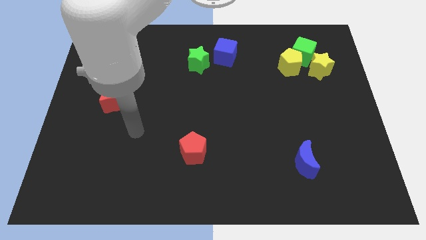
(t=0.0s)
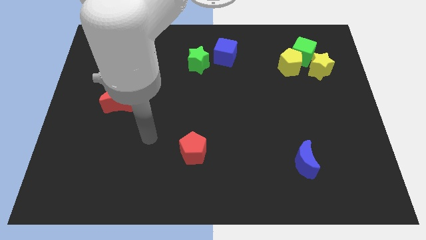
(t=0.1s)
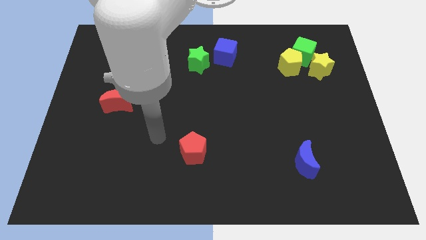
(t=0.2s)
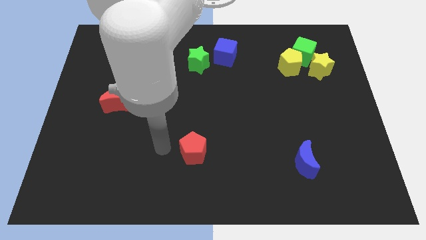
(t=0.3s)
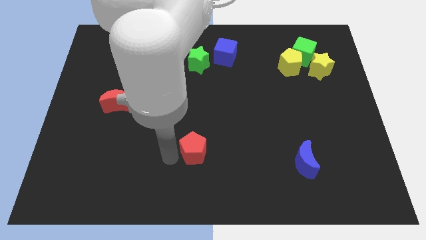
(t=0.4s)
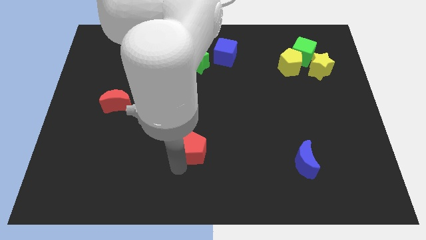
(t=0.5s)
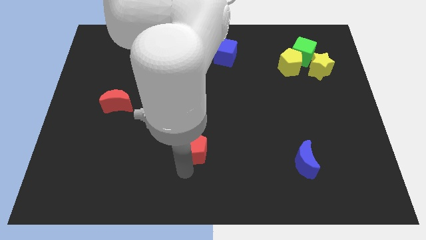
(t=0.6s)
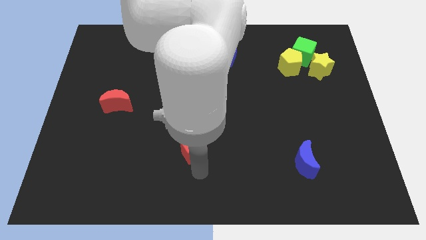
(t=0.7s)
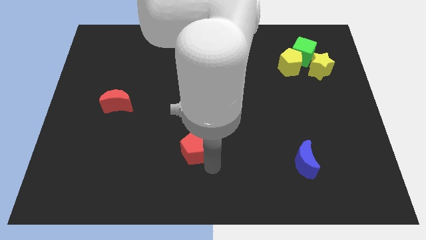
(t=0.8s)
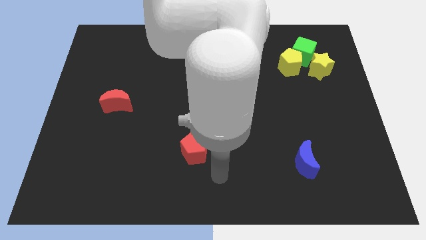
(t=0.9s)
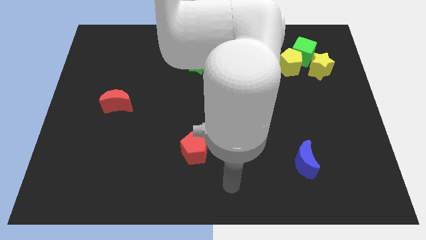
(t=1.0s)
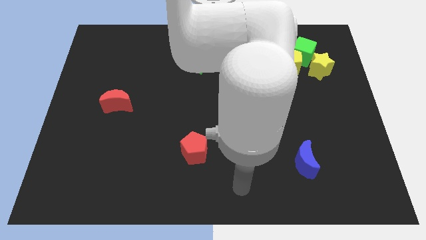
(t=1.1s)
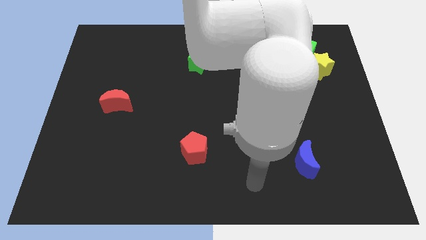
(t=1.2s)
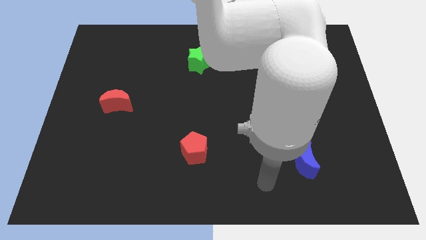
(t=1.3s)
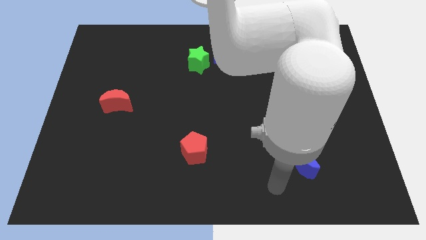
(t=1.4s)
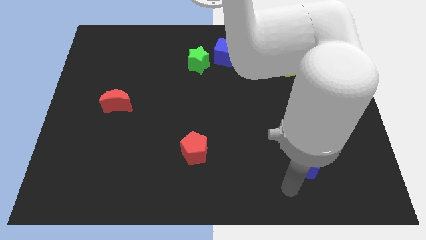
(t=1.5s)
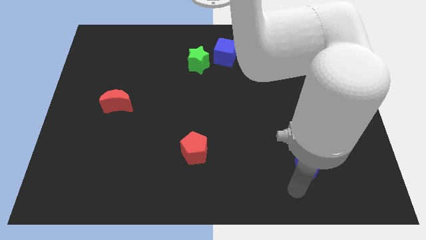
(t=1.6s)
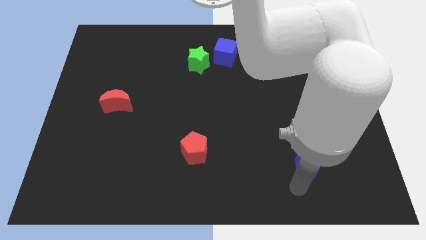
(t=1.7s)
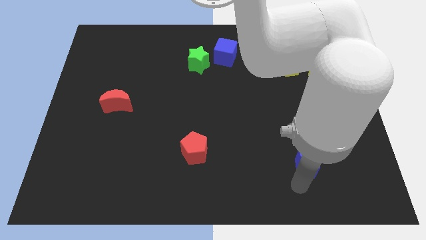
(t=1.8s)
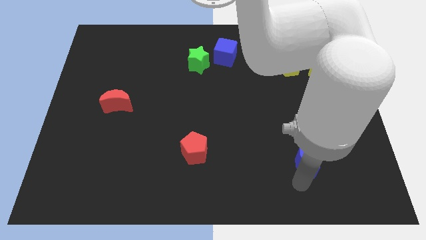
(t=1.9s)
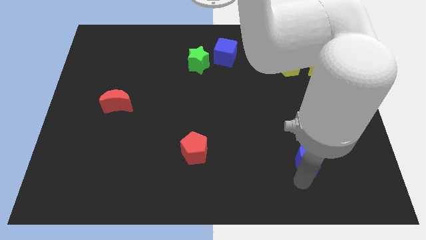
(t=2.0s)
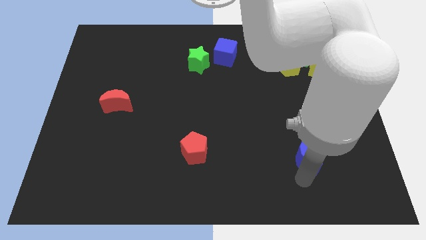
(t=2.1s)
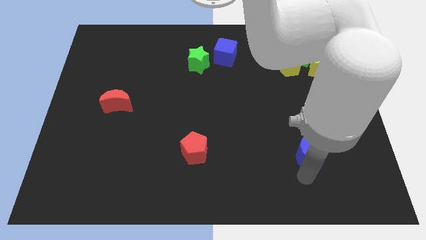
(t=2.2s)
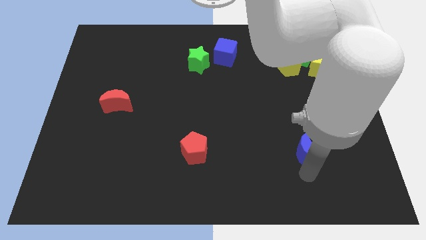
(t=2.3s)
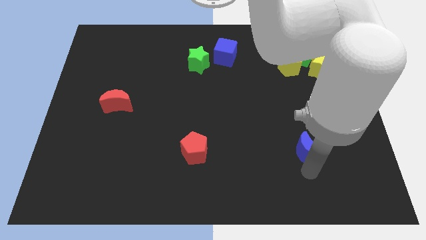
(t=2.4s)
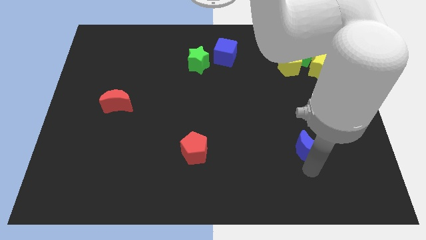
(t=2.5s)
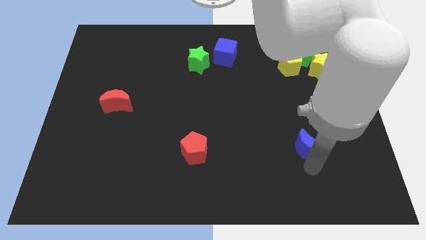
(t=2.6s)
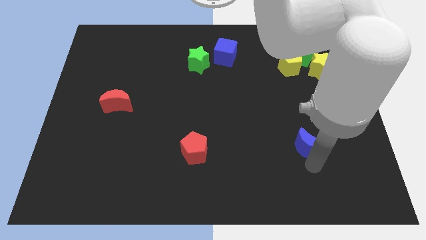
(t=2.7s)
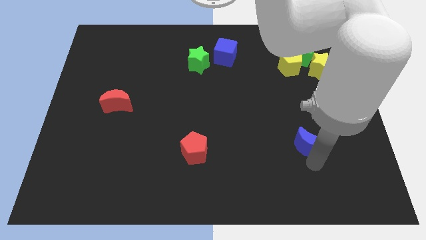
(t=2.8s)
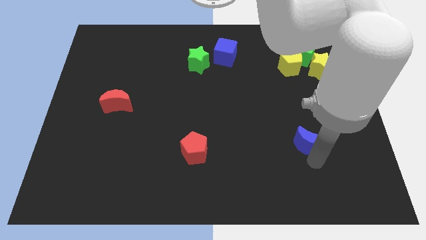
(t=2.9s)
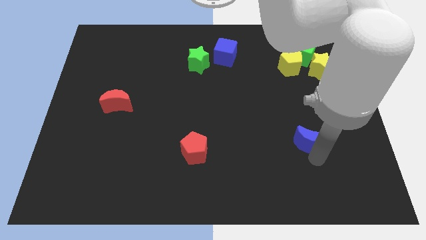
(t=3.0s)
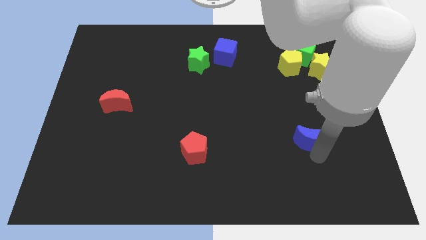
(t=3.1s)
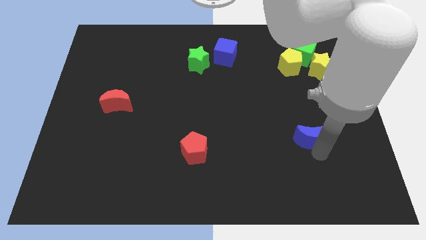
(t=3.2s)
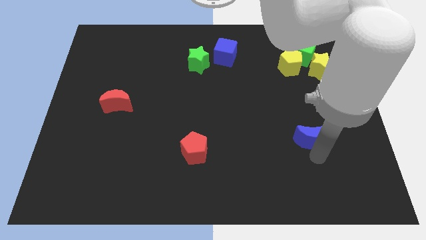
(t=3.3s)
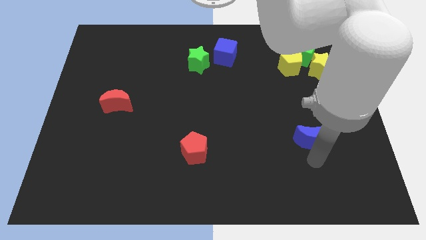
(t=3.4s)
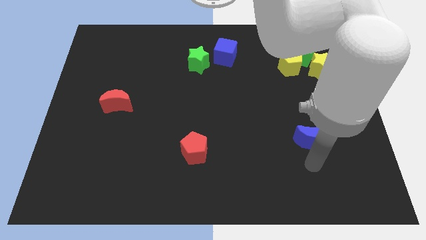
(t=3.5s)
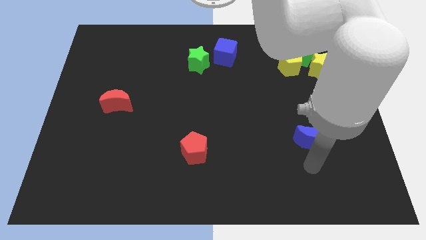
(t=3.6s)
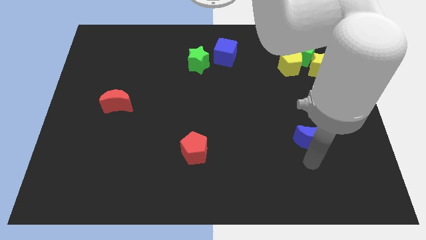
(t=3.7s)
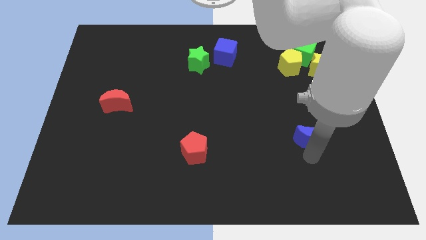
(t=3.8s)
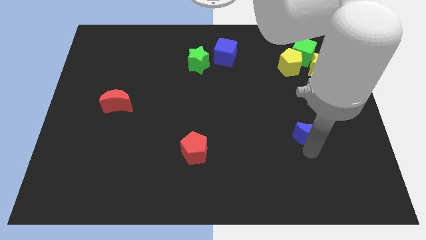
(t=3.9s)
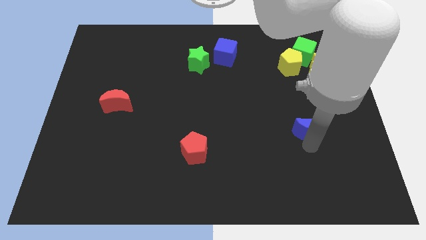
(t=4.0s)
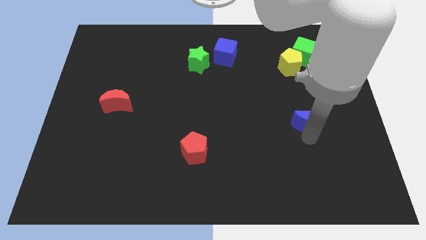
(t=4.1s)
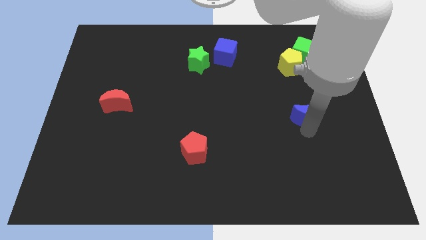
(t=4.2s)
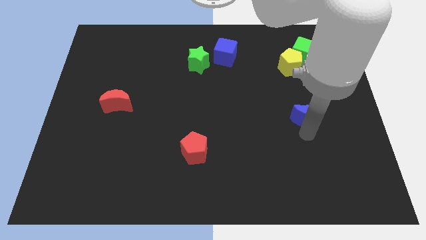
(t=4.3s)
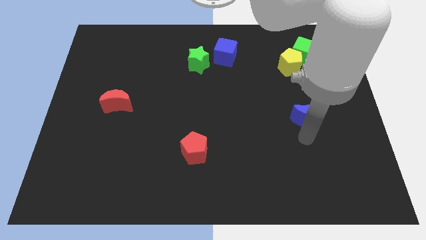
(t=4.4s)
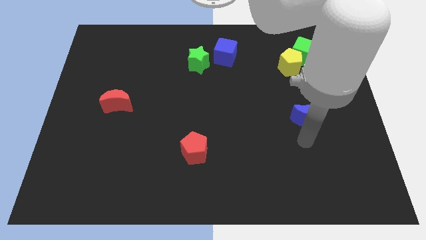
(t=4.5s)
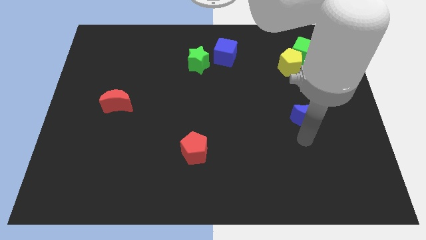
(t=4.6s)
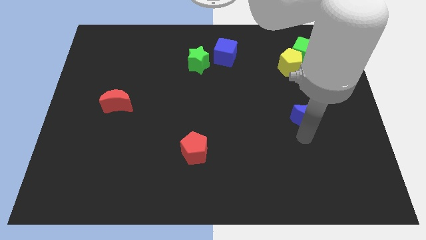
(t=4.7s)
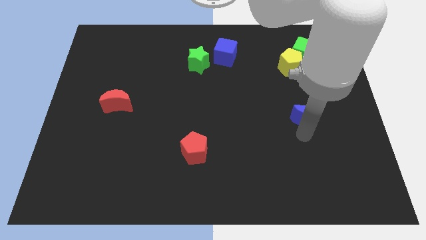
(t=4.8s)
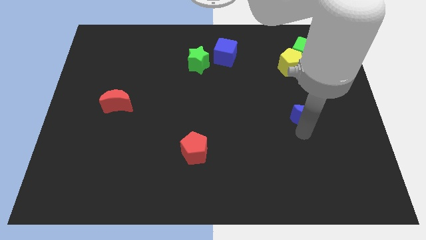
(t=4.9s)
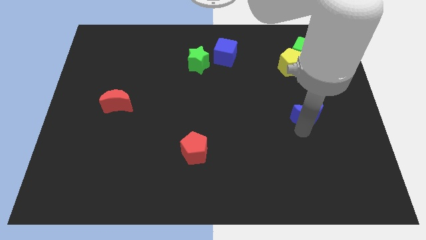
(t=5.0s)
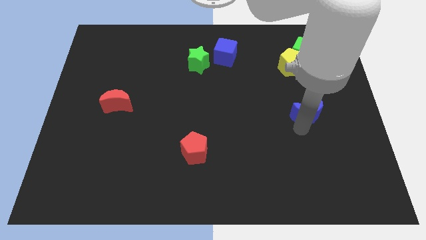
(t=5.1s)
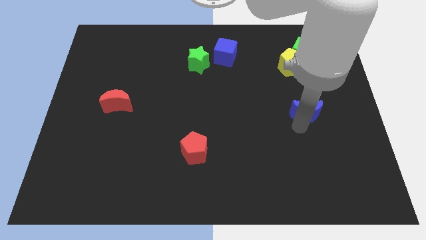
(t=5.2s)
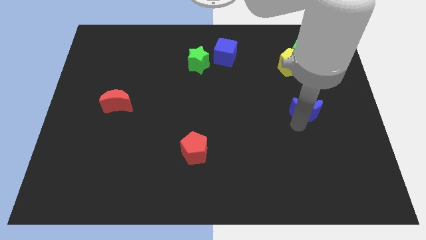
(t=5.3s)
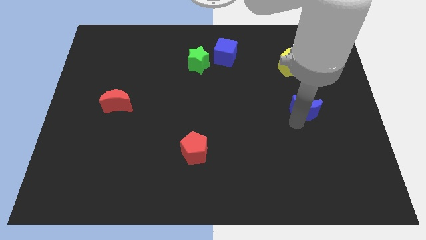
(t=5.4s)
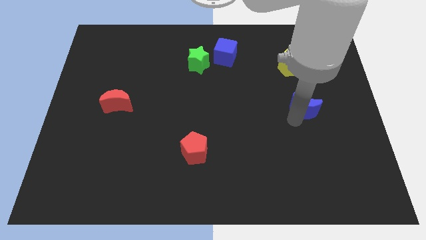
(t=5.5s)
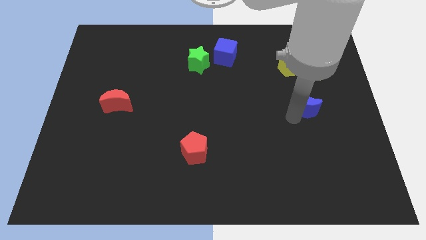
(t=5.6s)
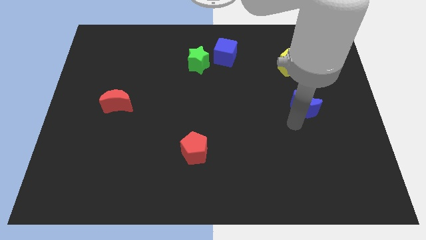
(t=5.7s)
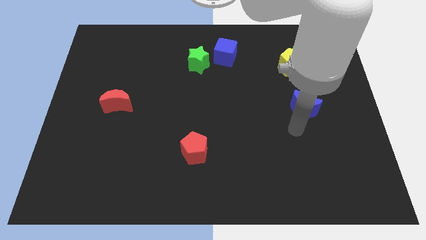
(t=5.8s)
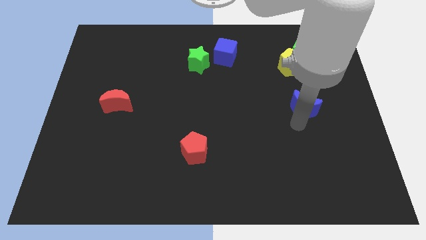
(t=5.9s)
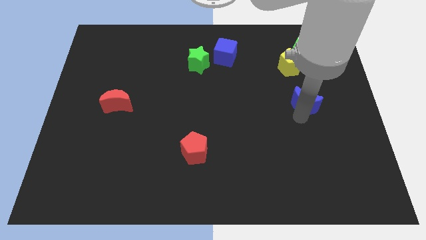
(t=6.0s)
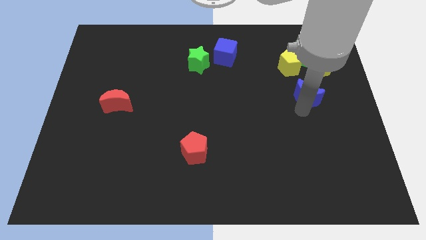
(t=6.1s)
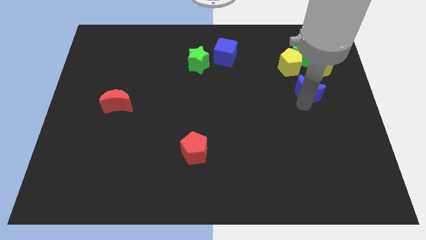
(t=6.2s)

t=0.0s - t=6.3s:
put the blue moon to the bottom right of the yellow pentagon

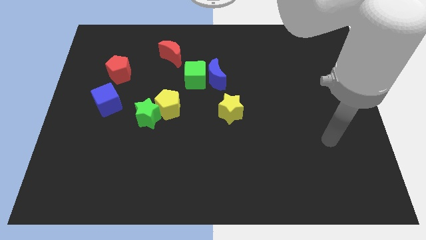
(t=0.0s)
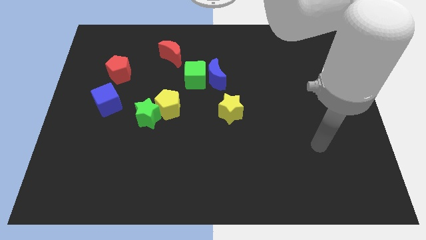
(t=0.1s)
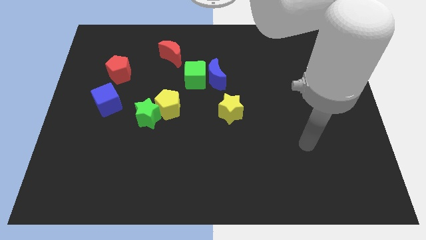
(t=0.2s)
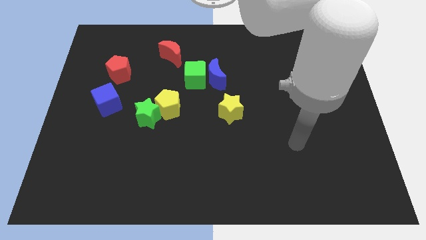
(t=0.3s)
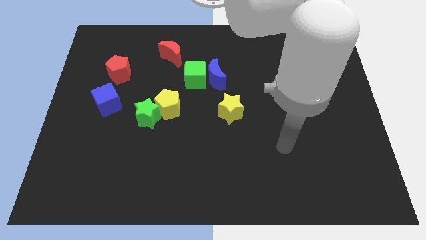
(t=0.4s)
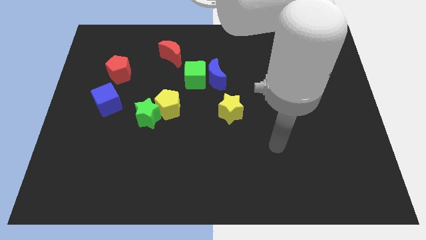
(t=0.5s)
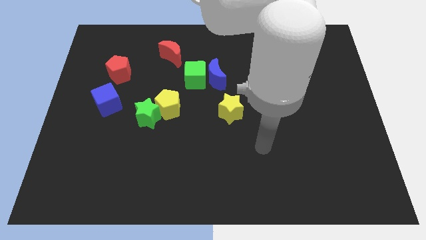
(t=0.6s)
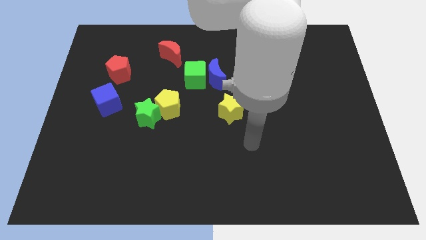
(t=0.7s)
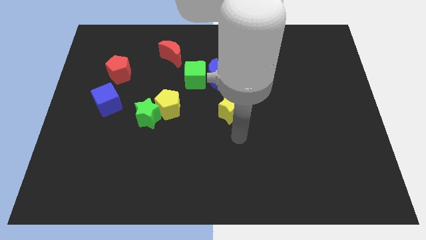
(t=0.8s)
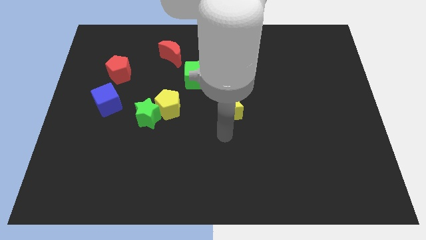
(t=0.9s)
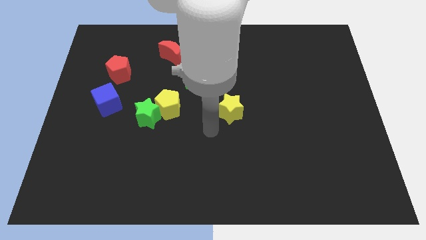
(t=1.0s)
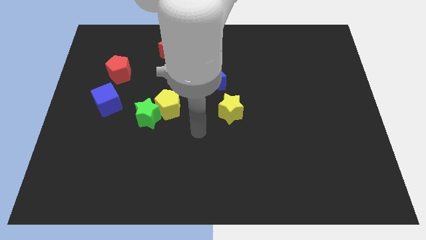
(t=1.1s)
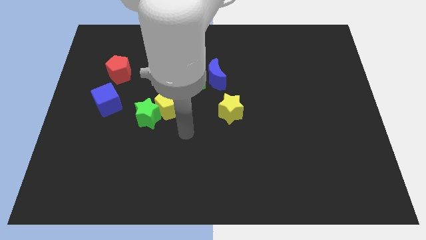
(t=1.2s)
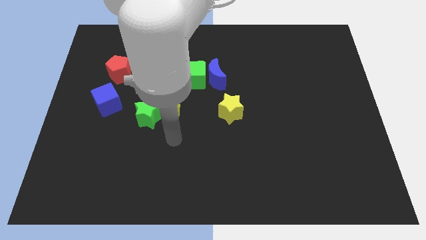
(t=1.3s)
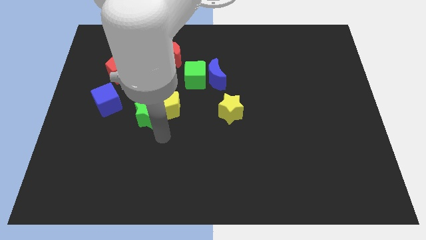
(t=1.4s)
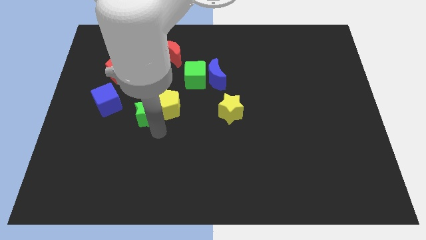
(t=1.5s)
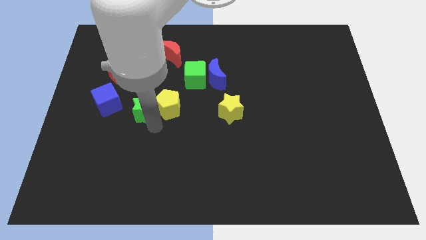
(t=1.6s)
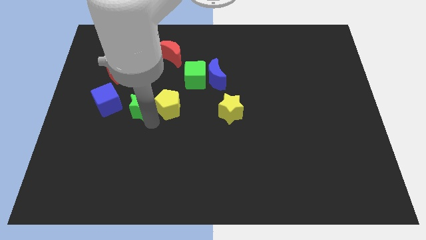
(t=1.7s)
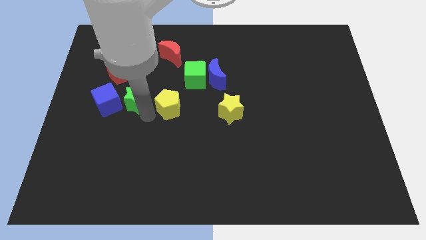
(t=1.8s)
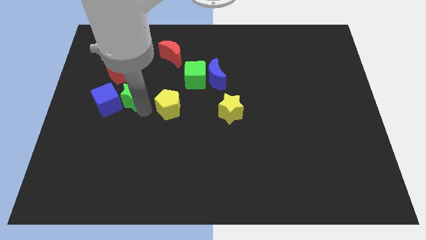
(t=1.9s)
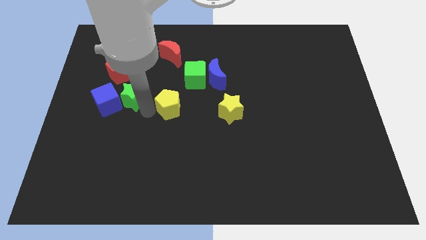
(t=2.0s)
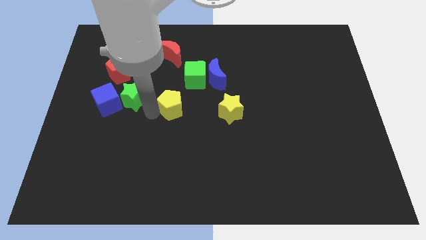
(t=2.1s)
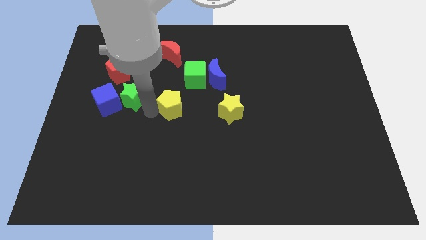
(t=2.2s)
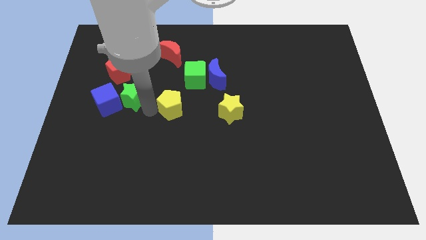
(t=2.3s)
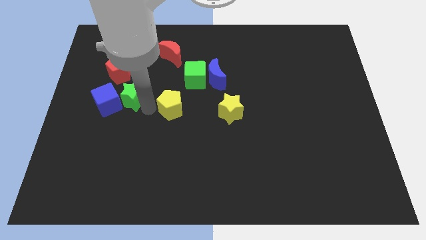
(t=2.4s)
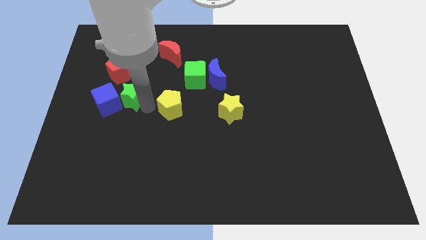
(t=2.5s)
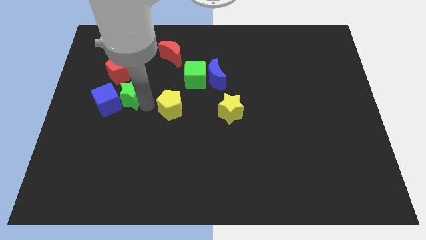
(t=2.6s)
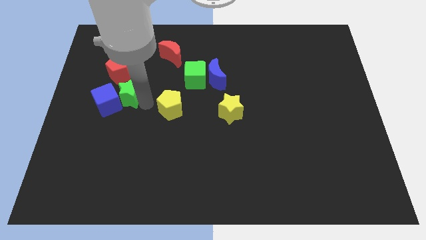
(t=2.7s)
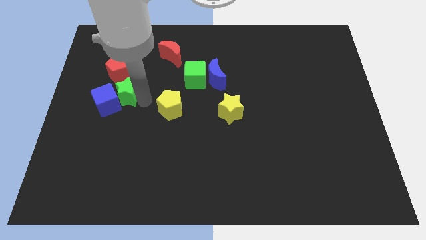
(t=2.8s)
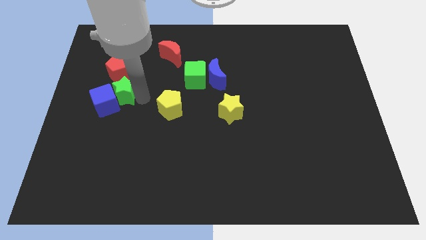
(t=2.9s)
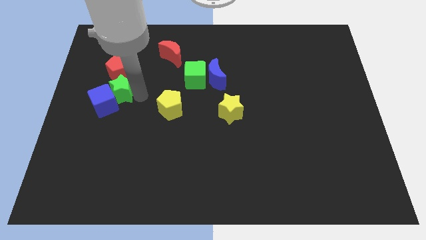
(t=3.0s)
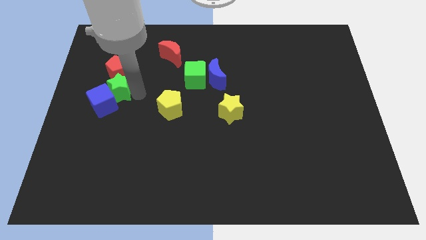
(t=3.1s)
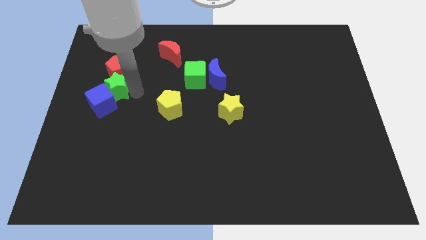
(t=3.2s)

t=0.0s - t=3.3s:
push the green star to the bottom left of the red pentagon
